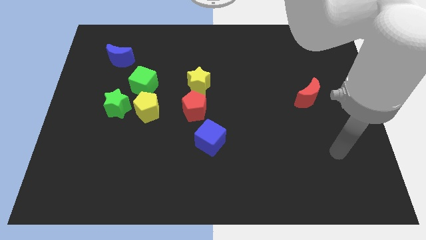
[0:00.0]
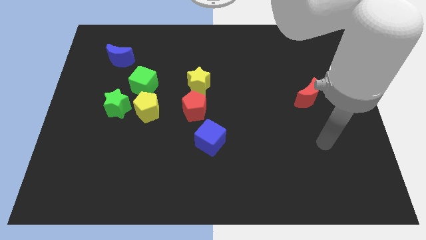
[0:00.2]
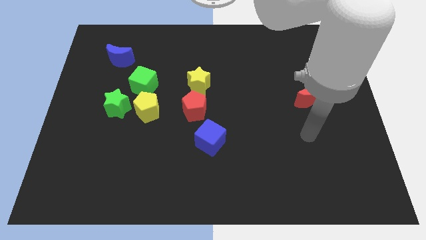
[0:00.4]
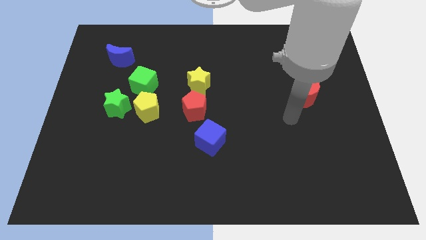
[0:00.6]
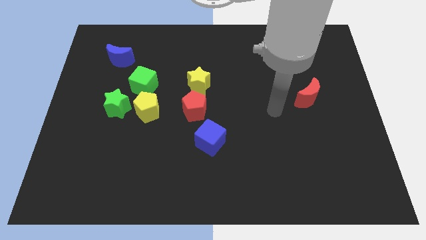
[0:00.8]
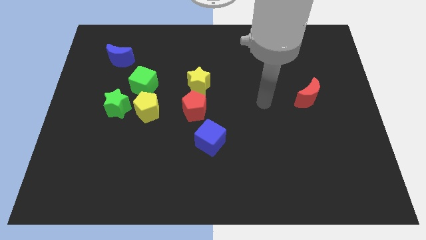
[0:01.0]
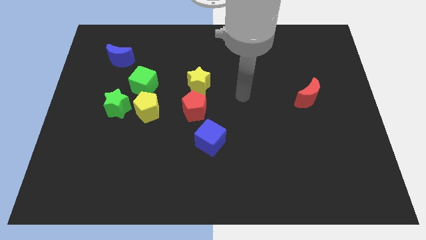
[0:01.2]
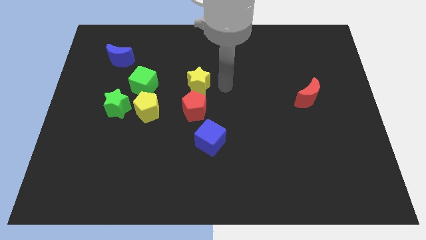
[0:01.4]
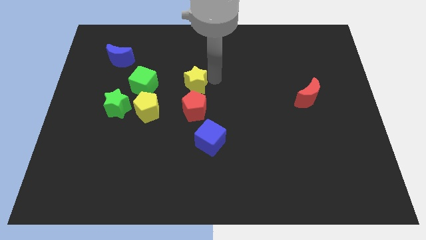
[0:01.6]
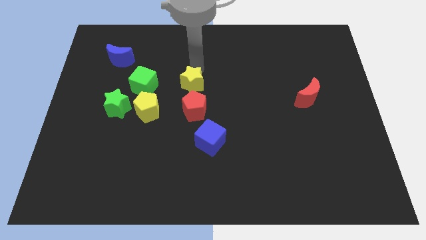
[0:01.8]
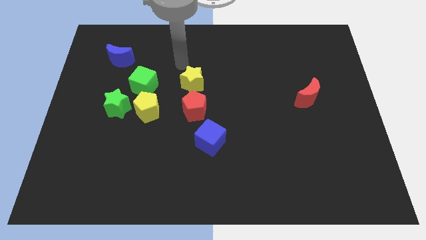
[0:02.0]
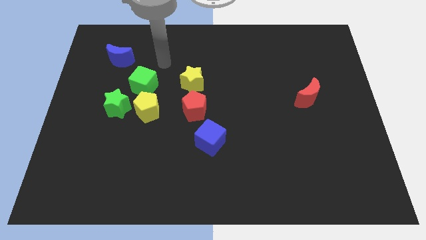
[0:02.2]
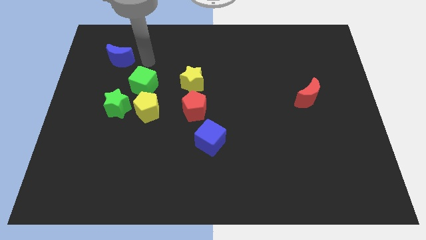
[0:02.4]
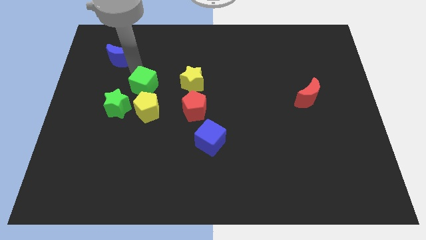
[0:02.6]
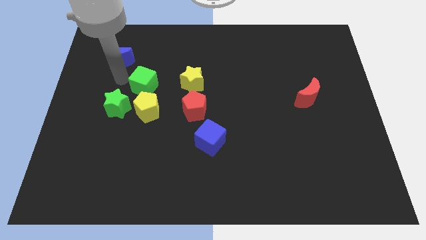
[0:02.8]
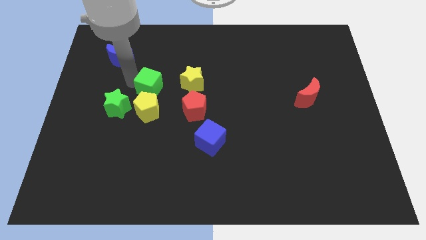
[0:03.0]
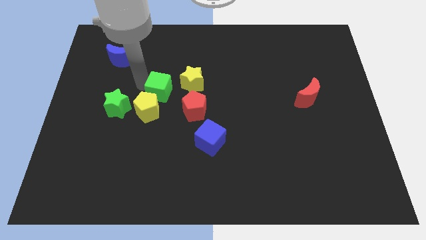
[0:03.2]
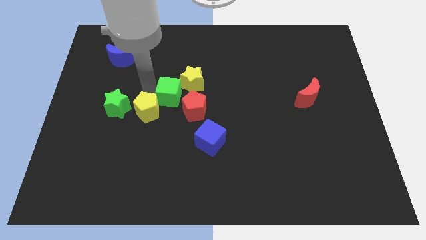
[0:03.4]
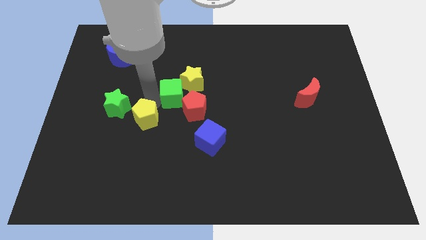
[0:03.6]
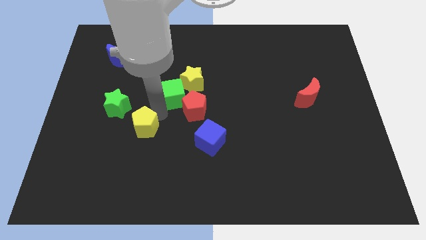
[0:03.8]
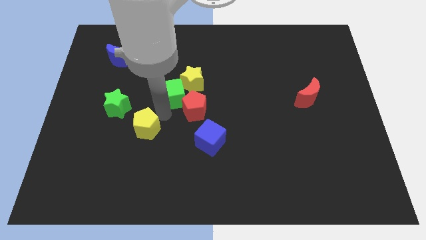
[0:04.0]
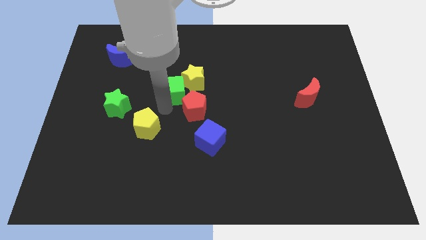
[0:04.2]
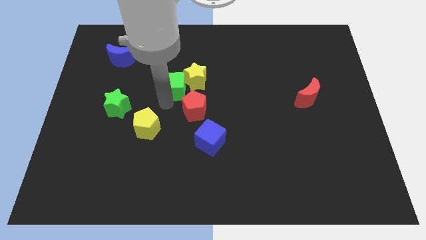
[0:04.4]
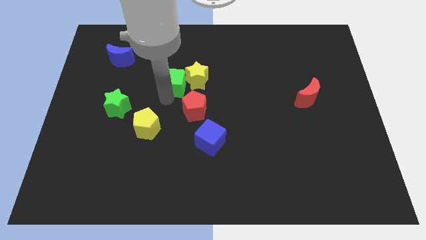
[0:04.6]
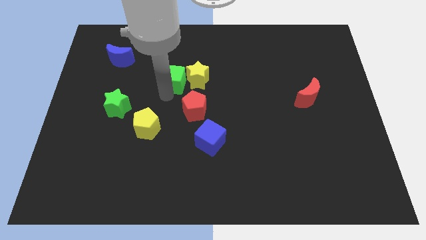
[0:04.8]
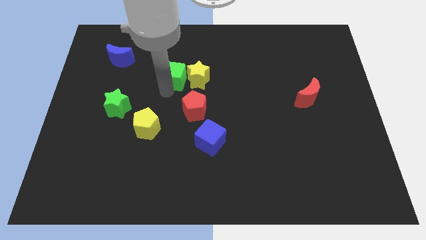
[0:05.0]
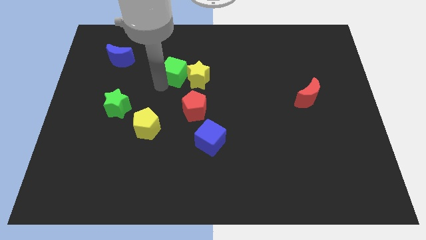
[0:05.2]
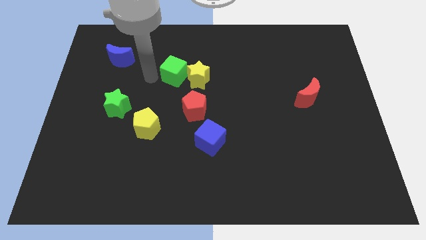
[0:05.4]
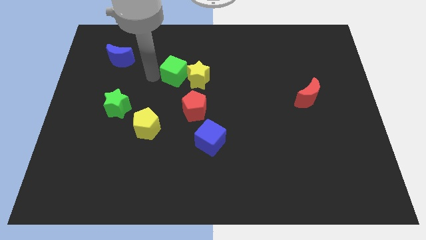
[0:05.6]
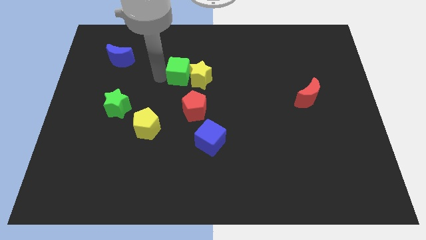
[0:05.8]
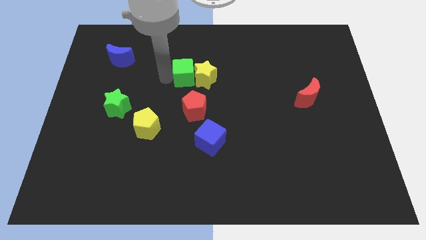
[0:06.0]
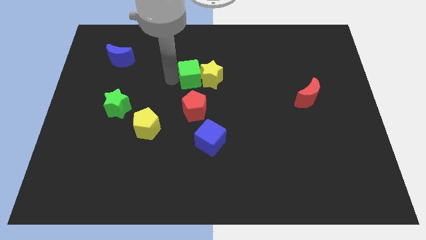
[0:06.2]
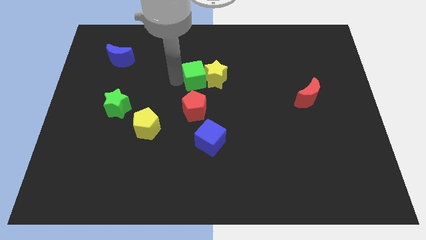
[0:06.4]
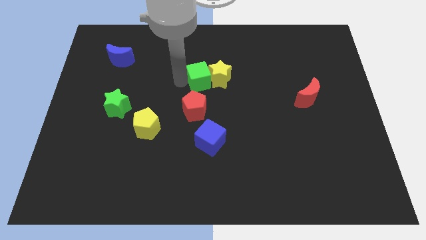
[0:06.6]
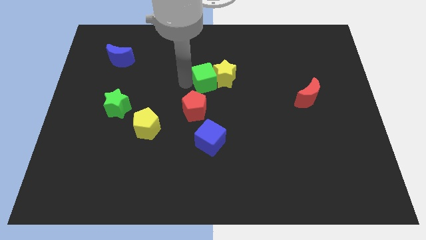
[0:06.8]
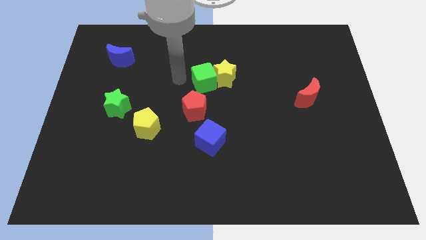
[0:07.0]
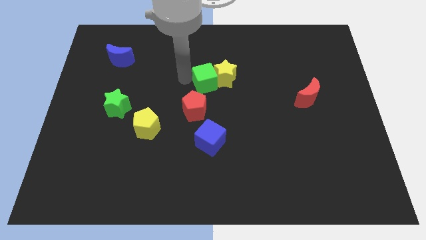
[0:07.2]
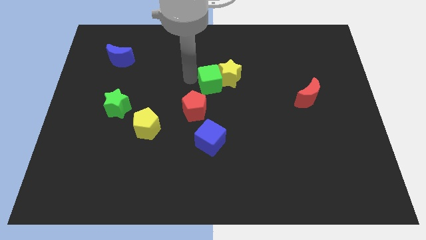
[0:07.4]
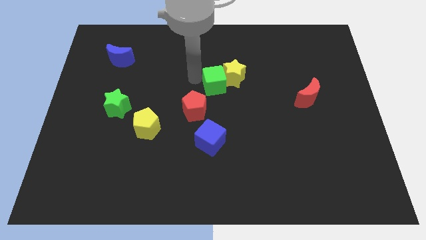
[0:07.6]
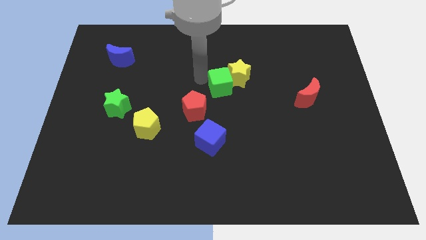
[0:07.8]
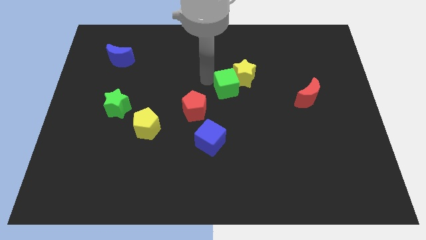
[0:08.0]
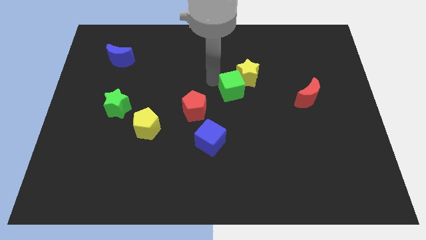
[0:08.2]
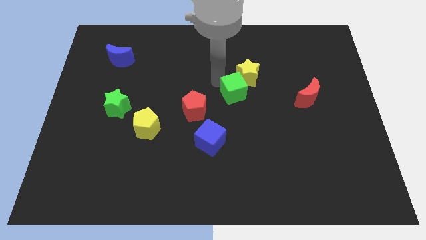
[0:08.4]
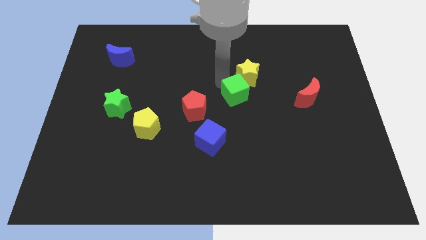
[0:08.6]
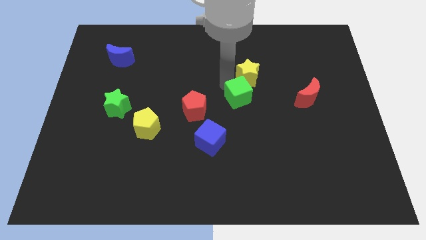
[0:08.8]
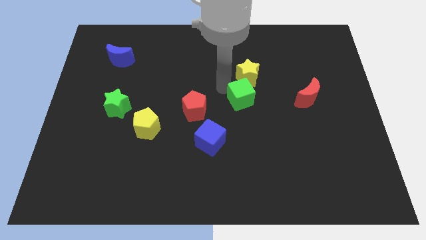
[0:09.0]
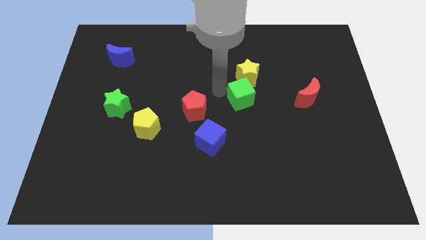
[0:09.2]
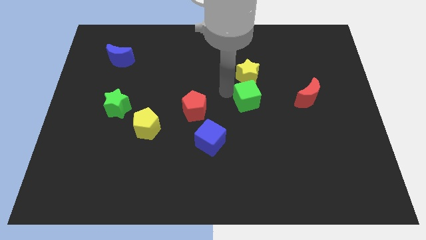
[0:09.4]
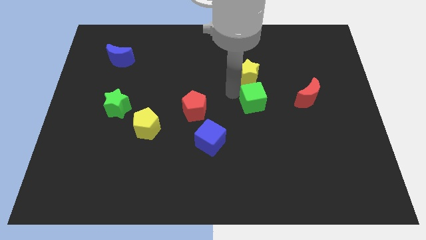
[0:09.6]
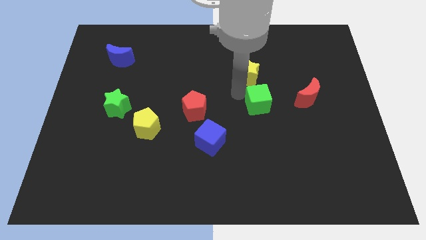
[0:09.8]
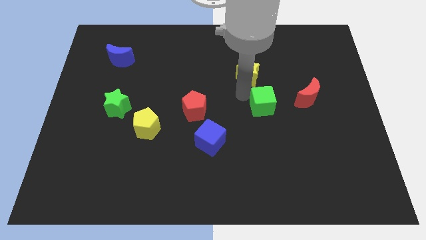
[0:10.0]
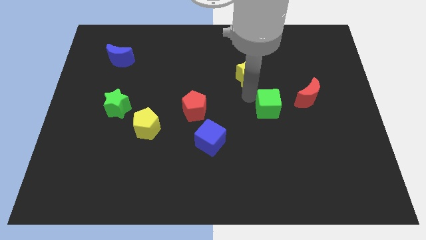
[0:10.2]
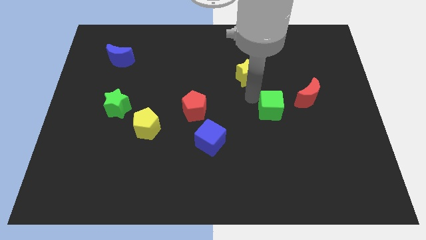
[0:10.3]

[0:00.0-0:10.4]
move the green cube to the bottom left side of the red moon

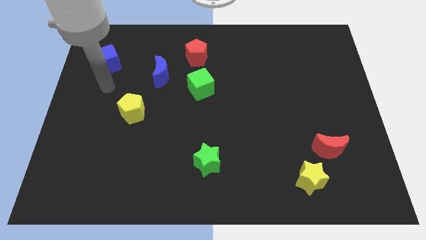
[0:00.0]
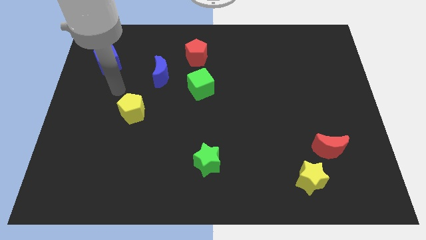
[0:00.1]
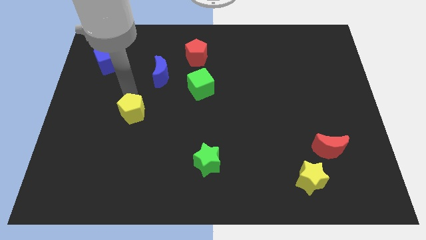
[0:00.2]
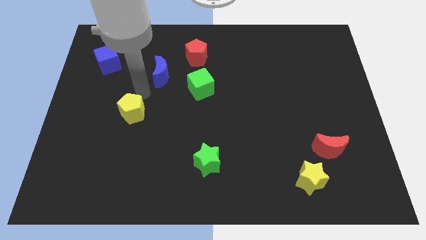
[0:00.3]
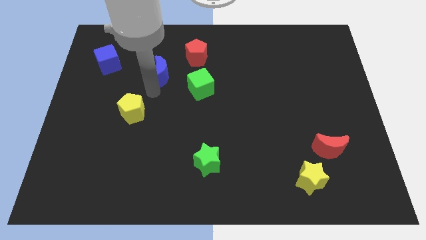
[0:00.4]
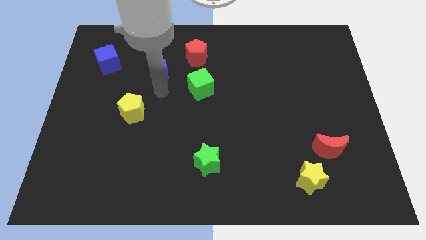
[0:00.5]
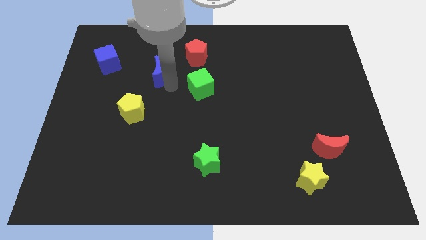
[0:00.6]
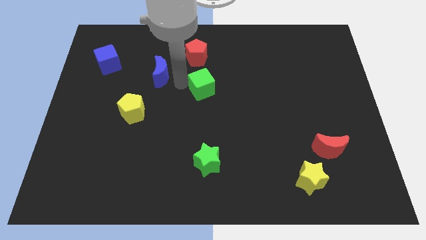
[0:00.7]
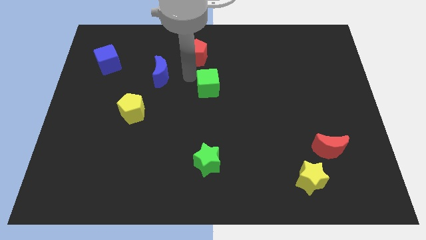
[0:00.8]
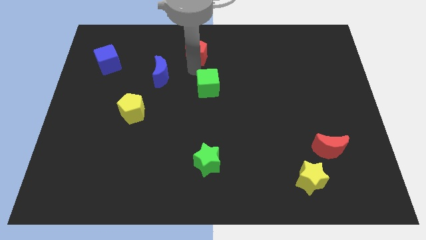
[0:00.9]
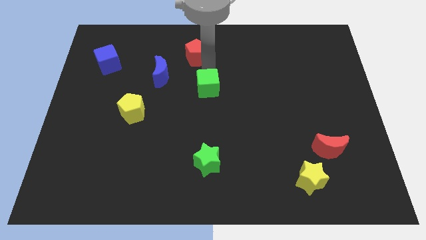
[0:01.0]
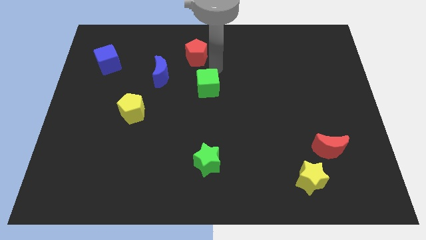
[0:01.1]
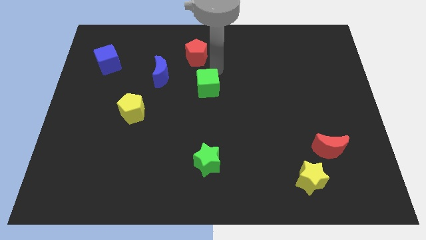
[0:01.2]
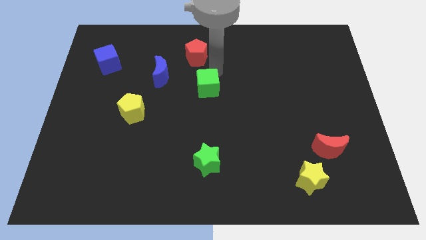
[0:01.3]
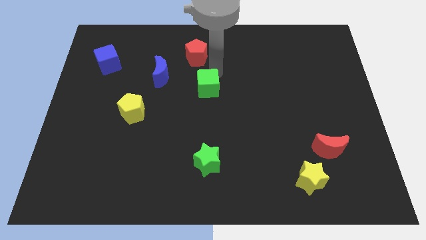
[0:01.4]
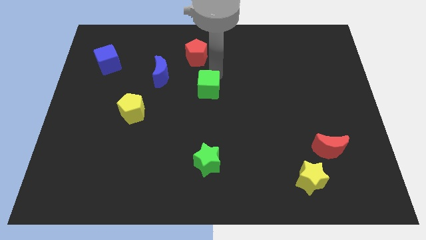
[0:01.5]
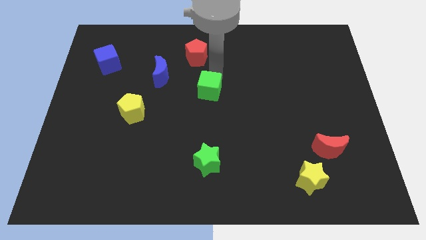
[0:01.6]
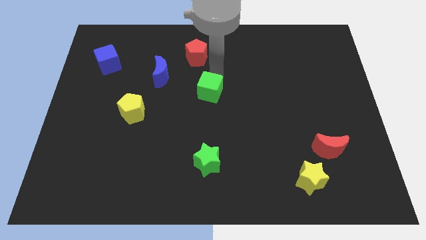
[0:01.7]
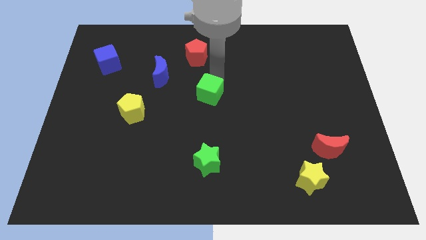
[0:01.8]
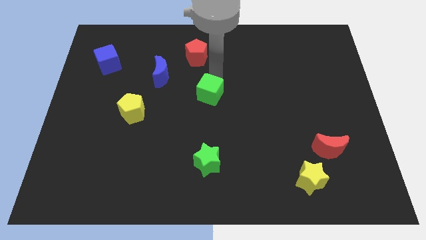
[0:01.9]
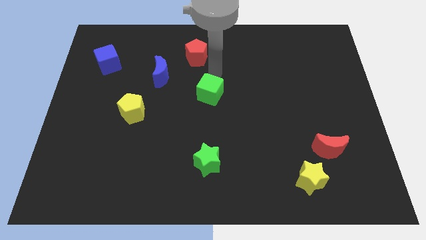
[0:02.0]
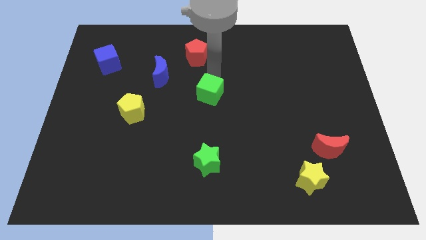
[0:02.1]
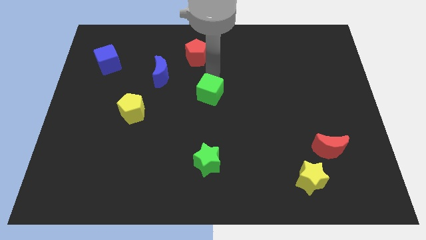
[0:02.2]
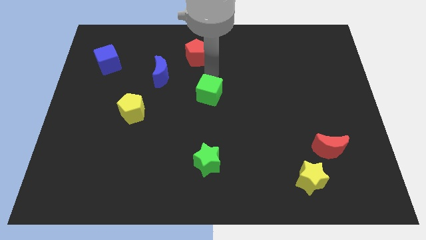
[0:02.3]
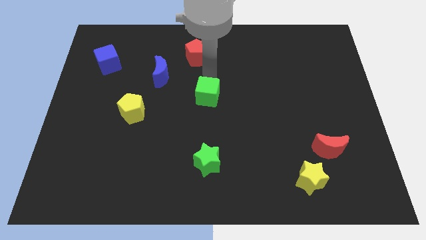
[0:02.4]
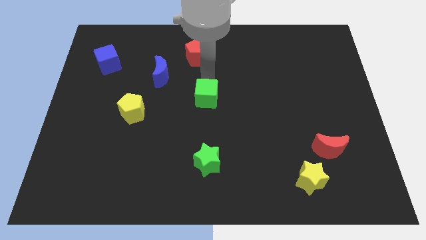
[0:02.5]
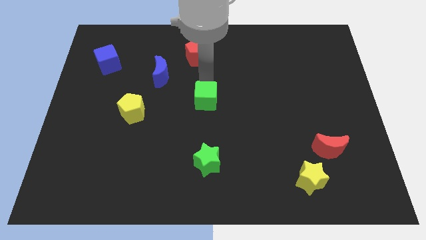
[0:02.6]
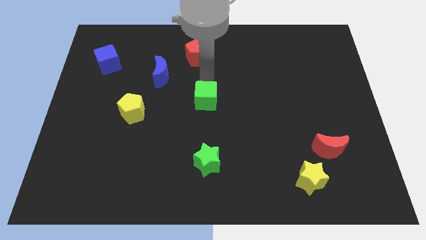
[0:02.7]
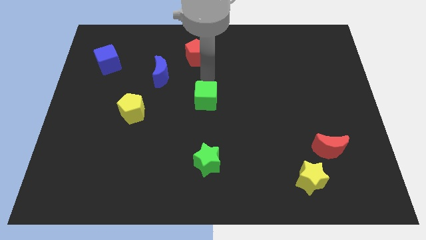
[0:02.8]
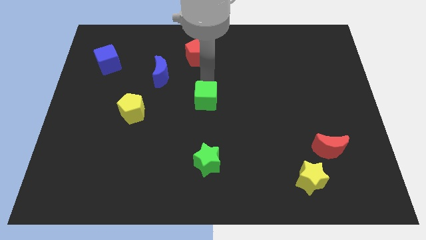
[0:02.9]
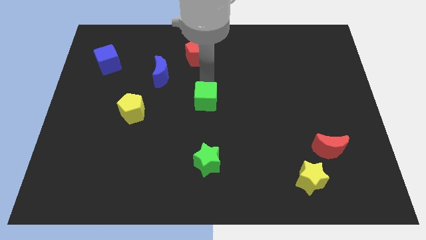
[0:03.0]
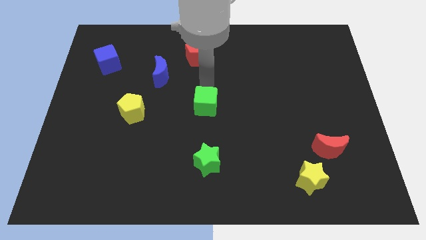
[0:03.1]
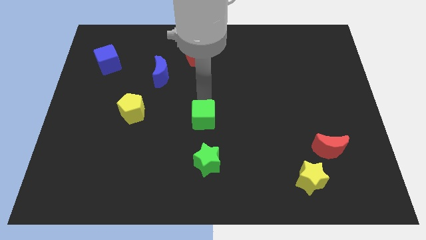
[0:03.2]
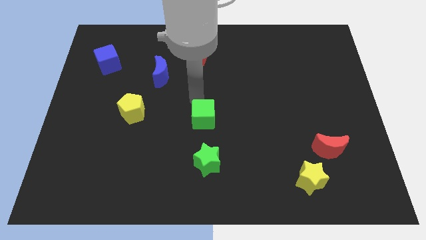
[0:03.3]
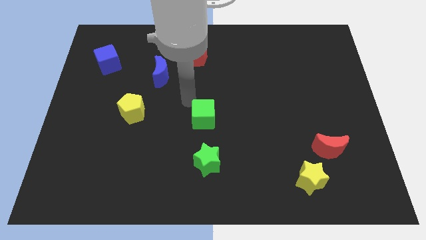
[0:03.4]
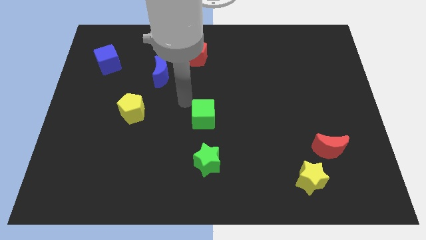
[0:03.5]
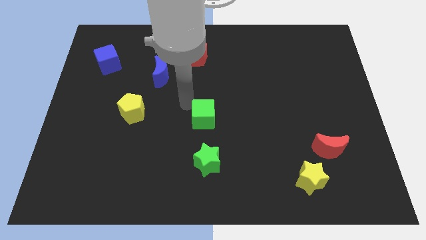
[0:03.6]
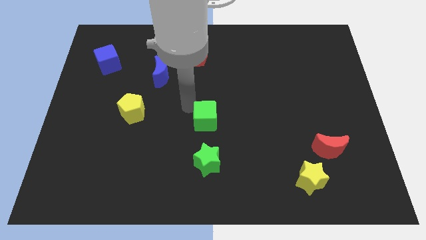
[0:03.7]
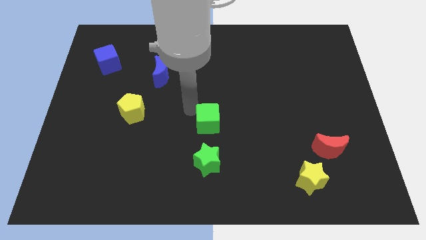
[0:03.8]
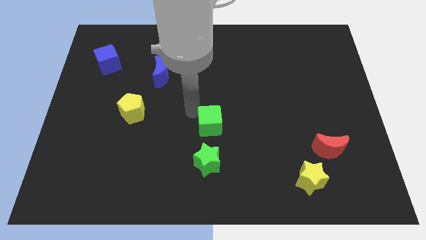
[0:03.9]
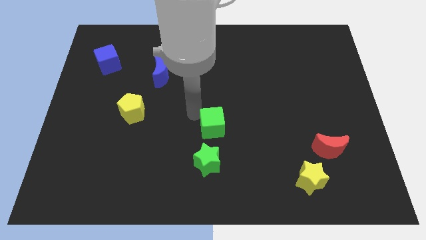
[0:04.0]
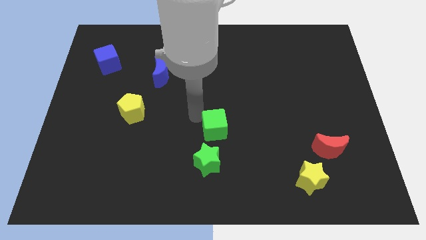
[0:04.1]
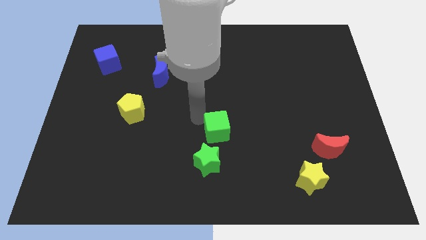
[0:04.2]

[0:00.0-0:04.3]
put the green cube diagonally up and to the right of the green star
